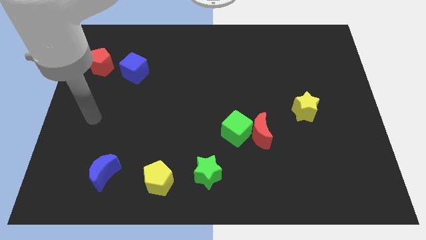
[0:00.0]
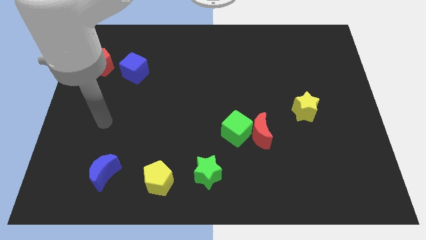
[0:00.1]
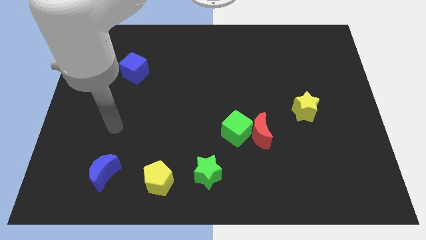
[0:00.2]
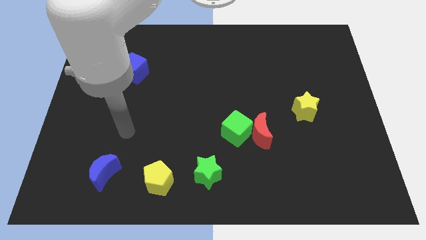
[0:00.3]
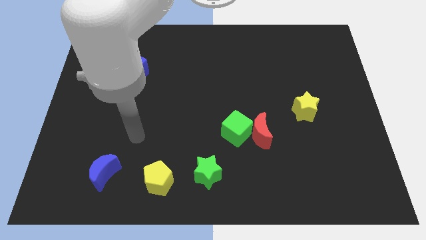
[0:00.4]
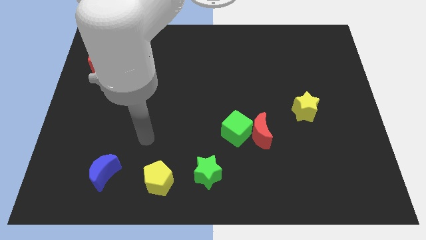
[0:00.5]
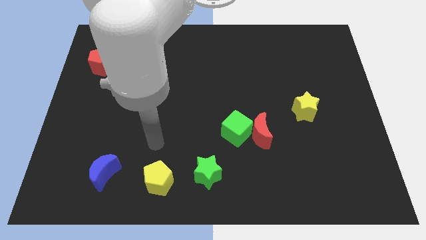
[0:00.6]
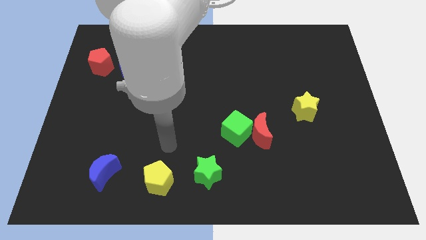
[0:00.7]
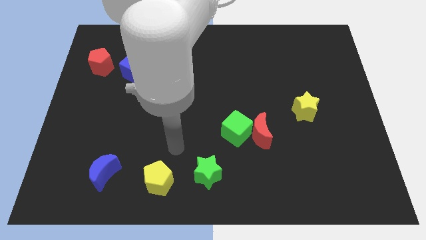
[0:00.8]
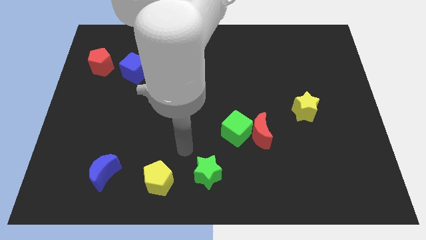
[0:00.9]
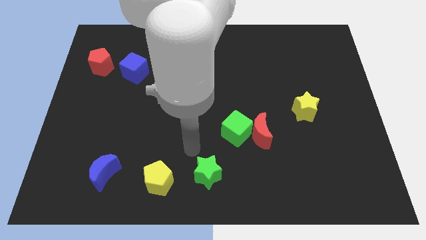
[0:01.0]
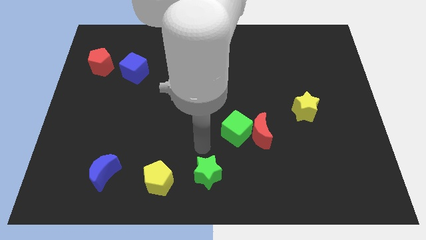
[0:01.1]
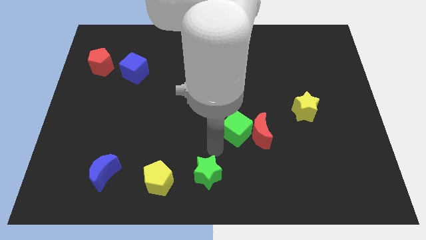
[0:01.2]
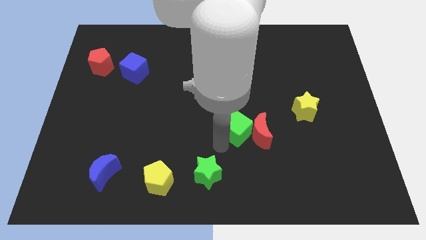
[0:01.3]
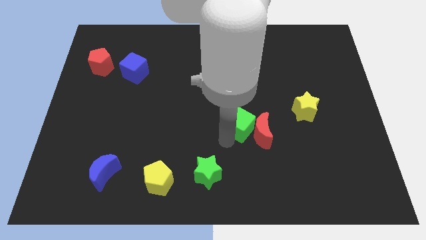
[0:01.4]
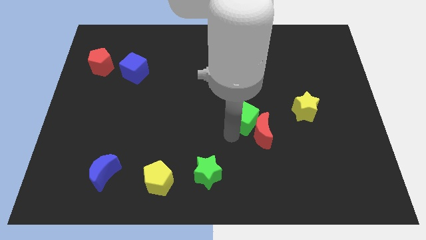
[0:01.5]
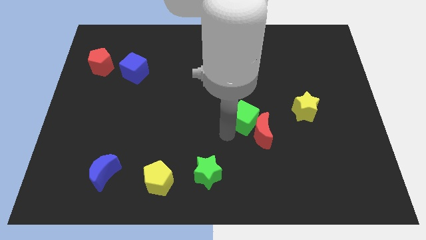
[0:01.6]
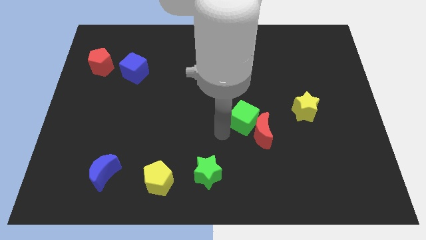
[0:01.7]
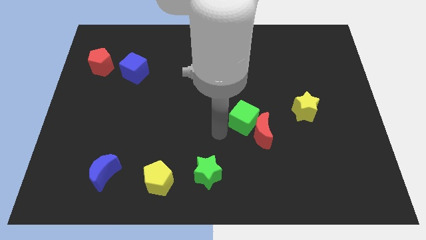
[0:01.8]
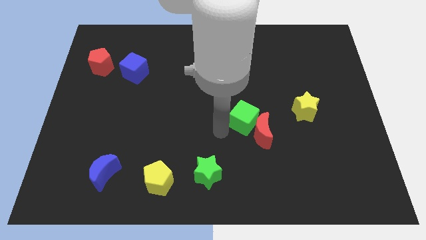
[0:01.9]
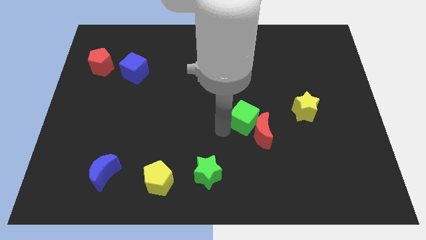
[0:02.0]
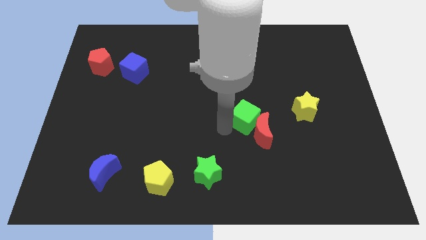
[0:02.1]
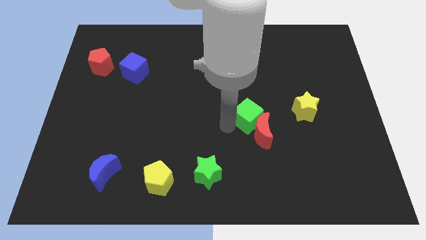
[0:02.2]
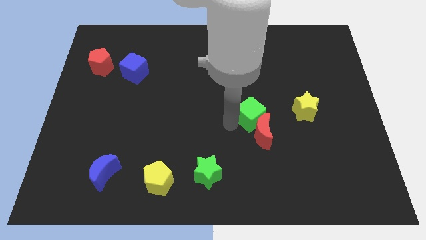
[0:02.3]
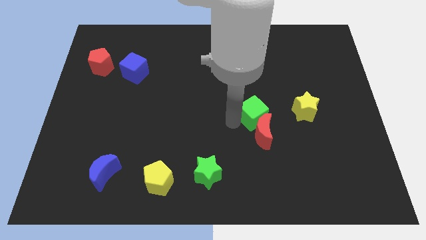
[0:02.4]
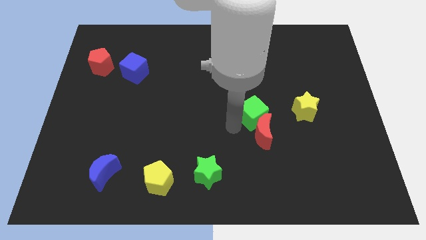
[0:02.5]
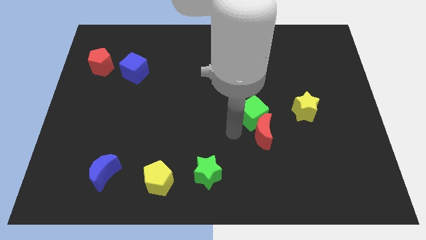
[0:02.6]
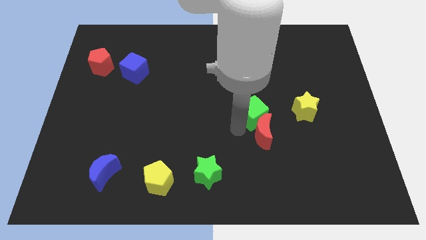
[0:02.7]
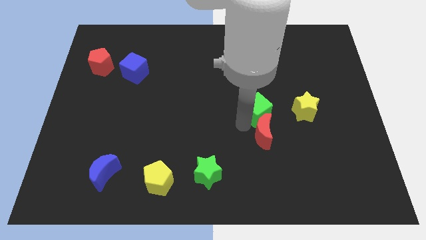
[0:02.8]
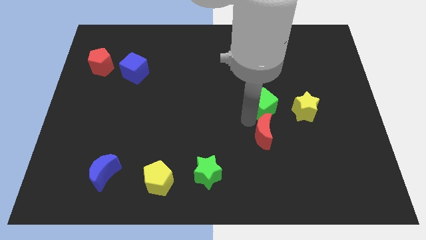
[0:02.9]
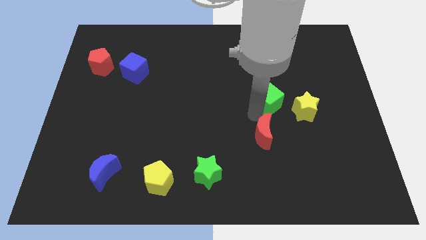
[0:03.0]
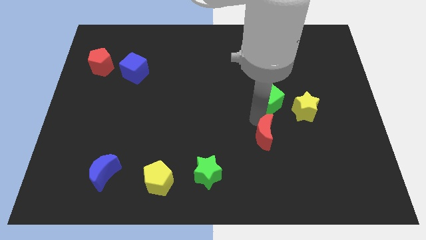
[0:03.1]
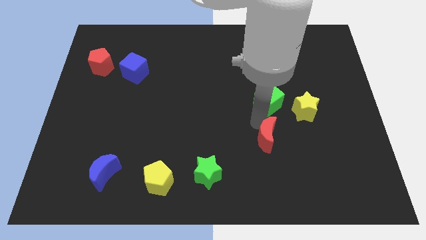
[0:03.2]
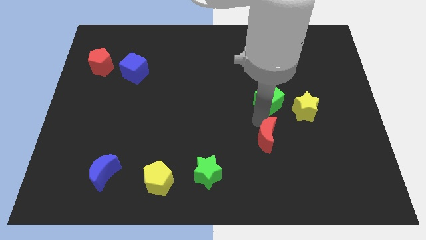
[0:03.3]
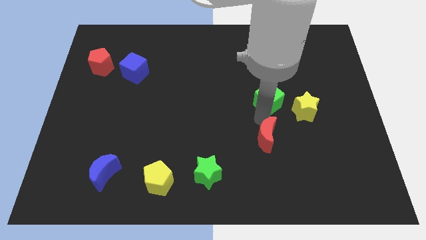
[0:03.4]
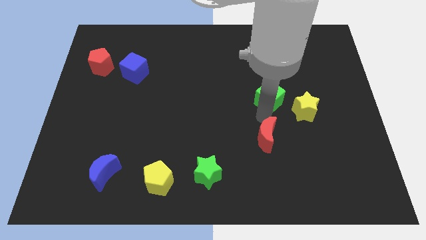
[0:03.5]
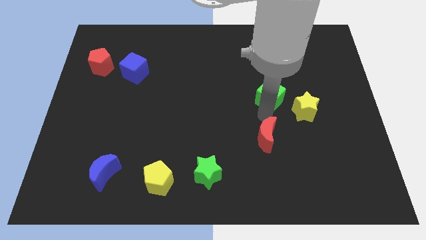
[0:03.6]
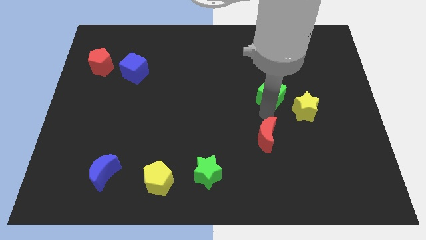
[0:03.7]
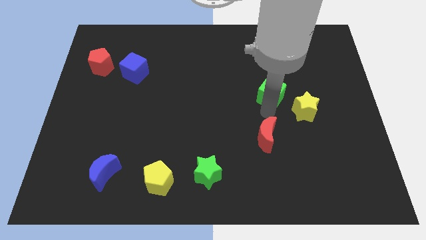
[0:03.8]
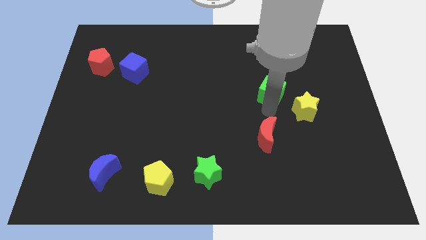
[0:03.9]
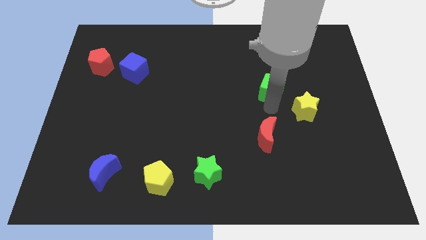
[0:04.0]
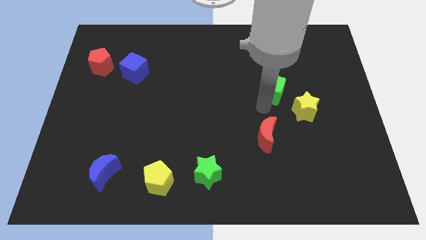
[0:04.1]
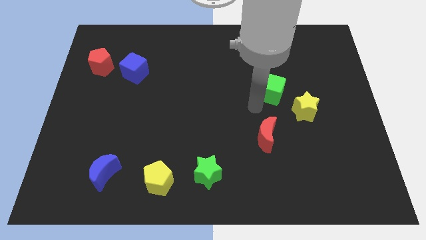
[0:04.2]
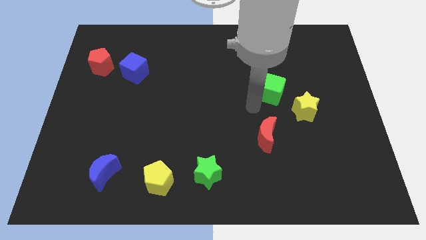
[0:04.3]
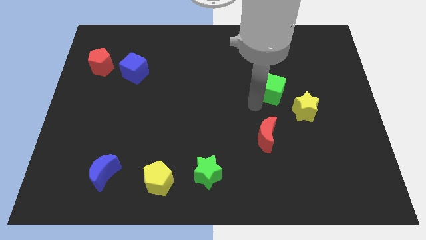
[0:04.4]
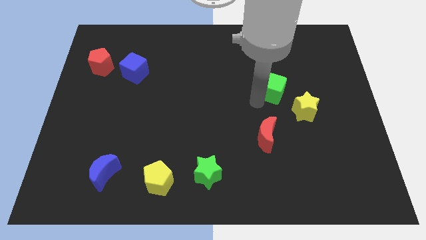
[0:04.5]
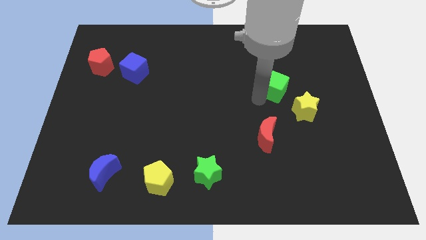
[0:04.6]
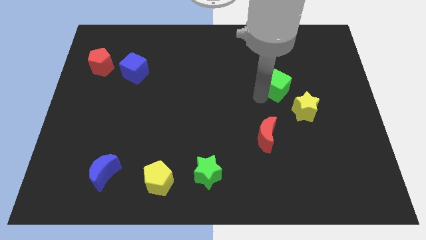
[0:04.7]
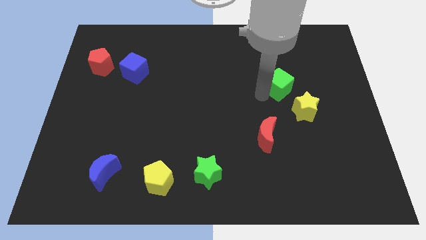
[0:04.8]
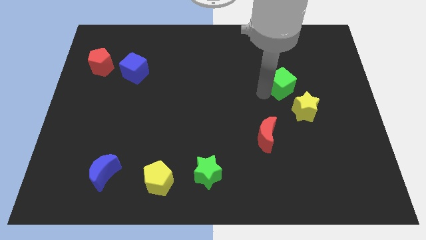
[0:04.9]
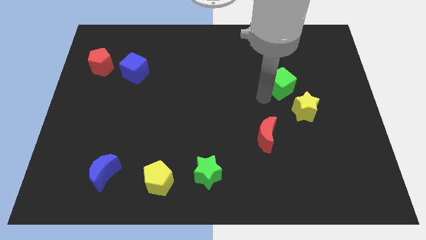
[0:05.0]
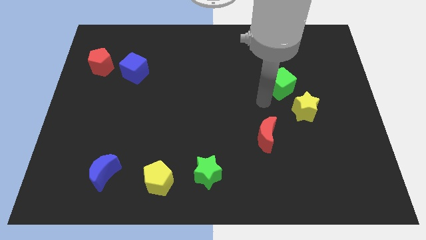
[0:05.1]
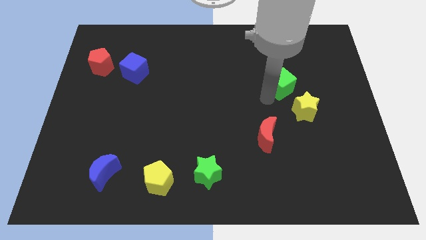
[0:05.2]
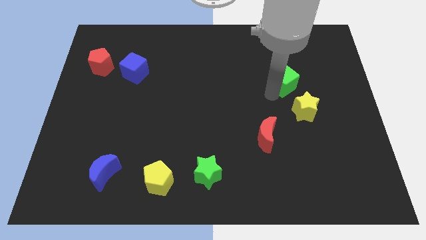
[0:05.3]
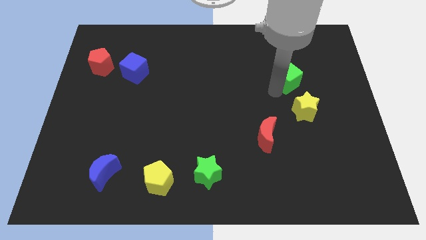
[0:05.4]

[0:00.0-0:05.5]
slide the green cube upwards and right

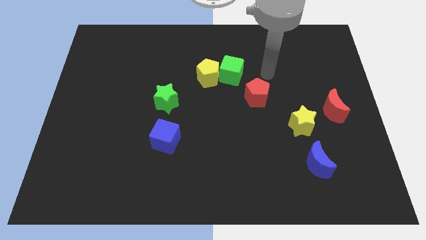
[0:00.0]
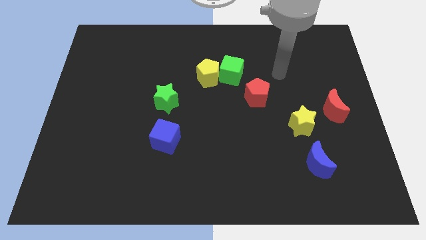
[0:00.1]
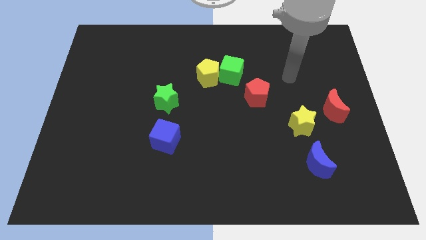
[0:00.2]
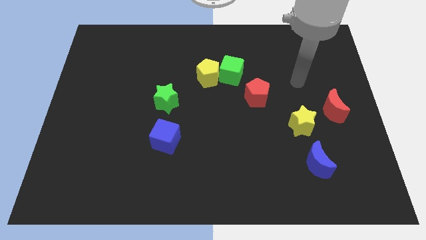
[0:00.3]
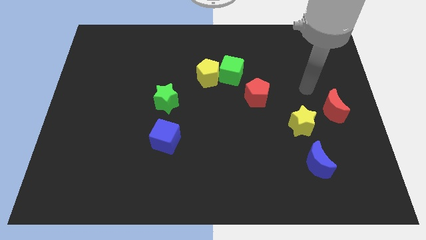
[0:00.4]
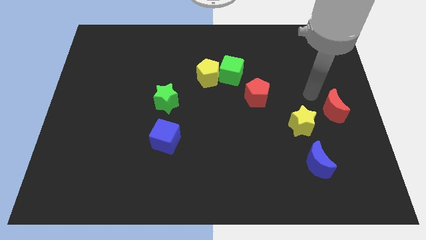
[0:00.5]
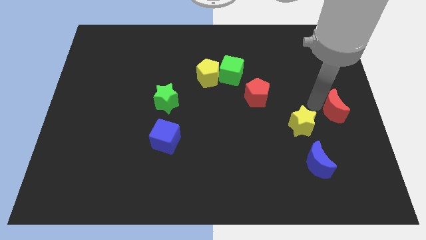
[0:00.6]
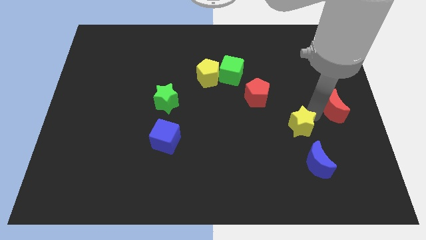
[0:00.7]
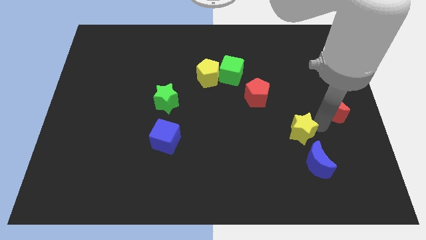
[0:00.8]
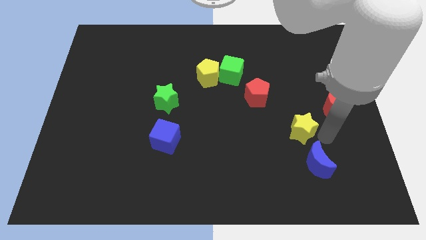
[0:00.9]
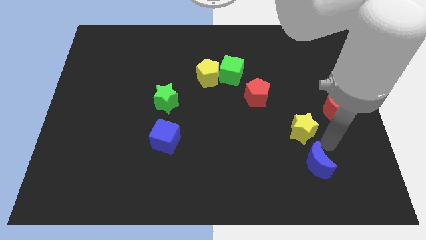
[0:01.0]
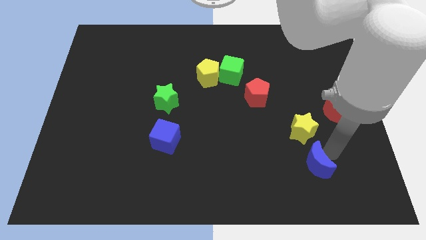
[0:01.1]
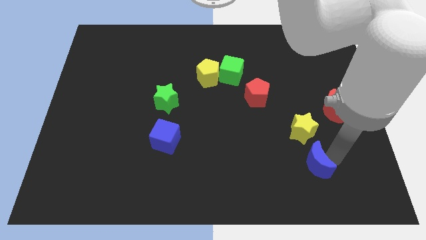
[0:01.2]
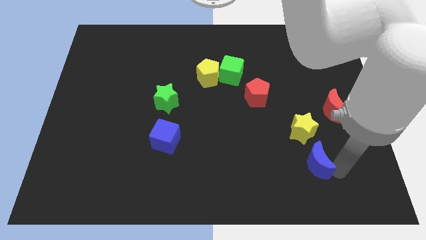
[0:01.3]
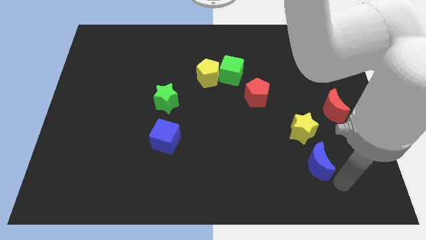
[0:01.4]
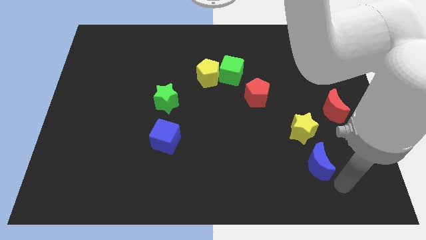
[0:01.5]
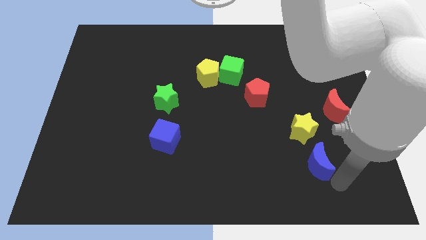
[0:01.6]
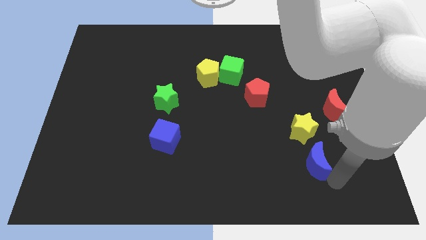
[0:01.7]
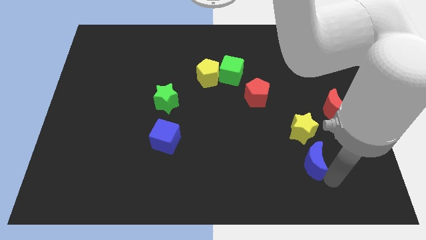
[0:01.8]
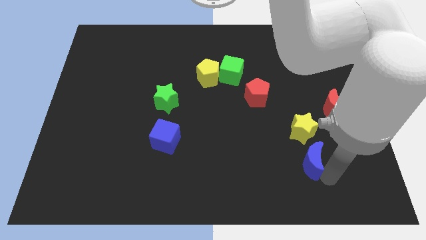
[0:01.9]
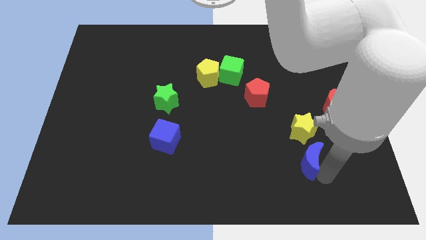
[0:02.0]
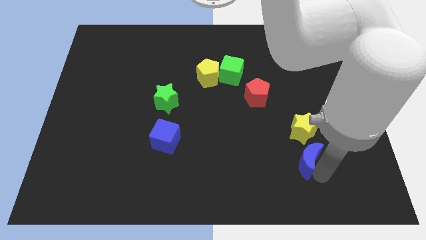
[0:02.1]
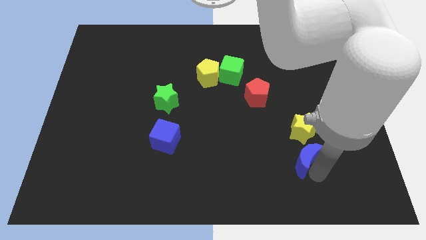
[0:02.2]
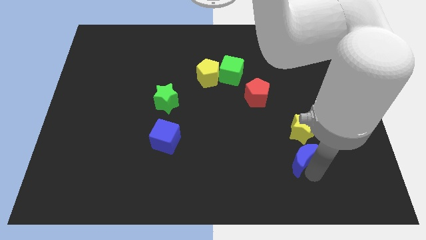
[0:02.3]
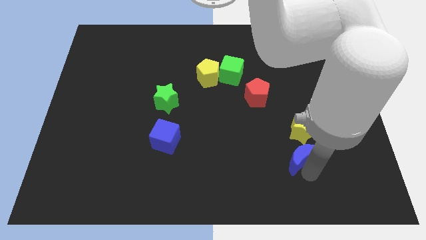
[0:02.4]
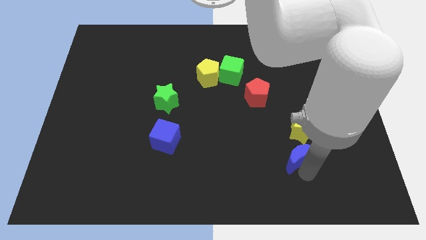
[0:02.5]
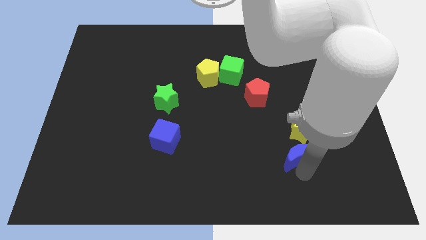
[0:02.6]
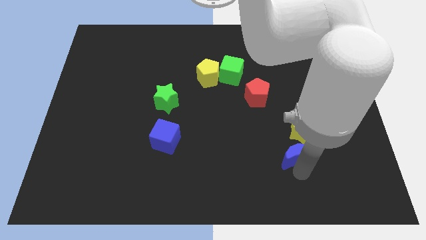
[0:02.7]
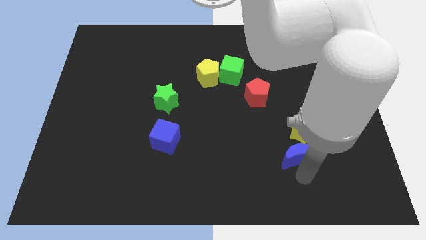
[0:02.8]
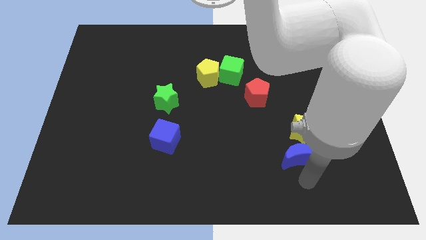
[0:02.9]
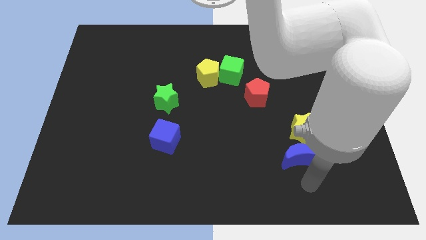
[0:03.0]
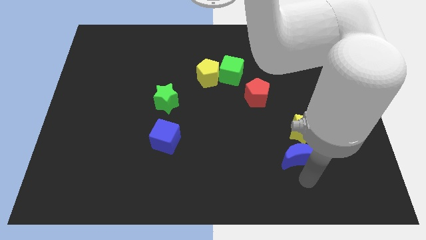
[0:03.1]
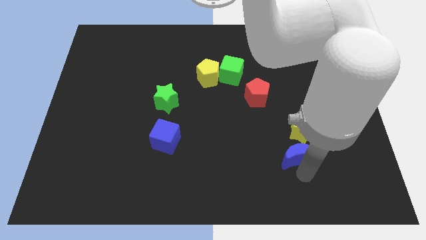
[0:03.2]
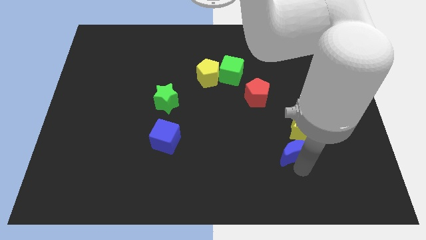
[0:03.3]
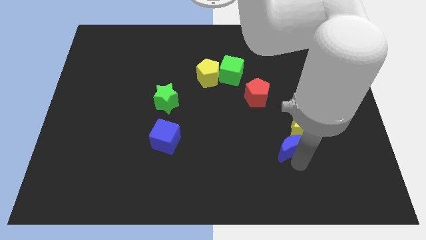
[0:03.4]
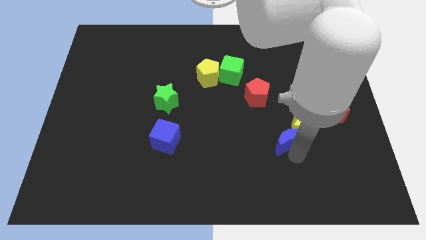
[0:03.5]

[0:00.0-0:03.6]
slide the blue moon up and left a little bit
